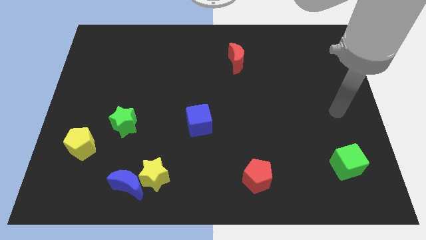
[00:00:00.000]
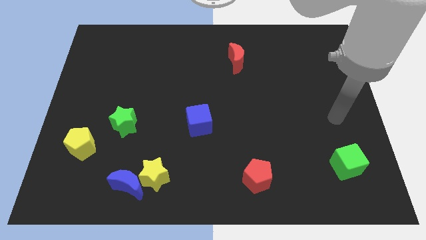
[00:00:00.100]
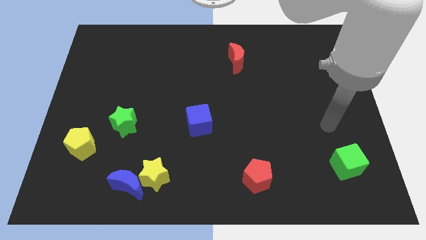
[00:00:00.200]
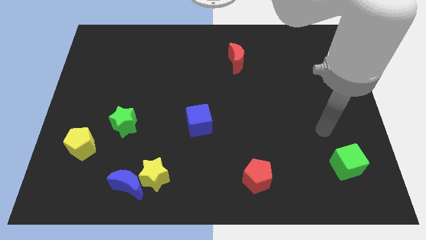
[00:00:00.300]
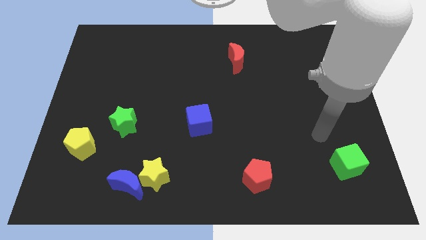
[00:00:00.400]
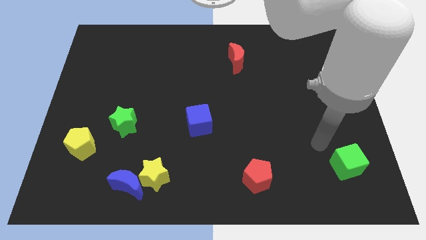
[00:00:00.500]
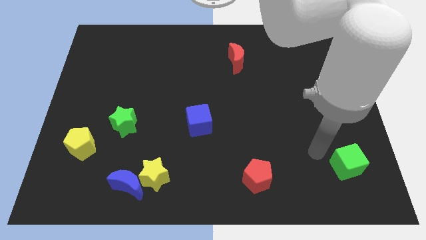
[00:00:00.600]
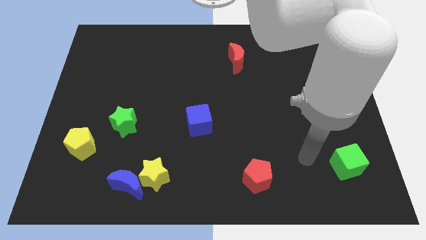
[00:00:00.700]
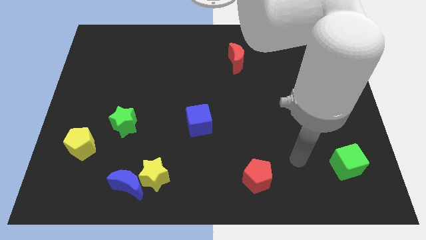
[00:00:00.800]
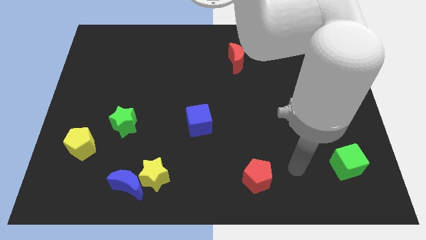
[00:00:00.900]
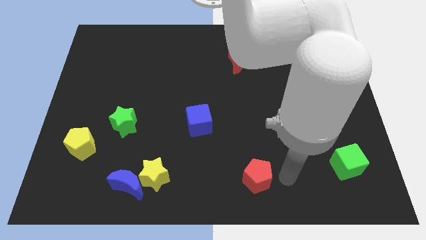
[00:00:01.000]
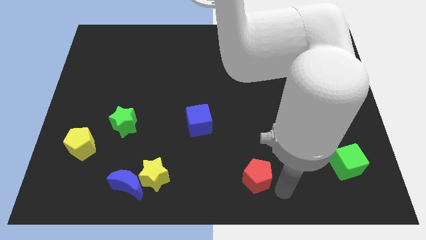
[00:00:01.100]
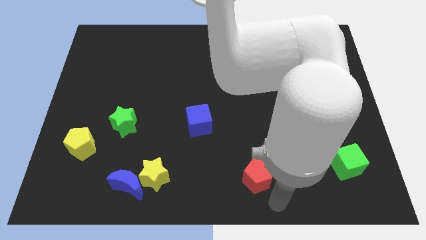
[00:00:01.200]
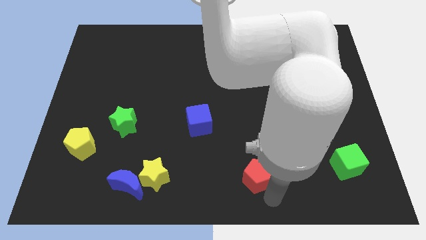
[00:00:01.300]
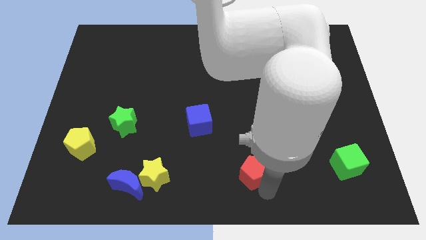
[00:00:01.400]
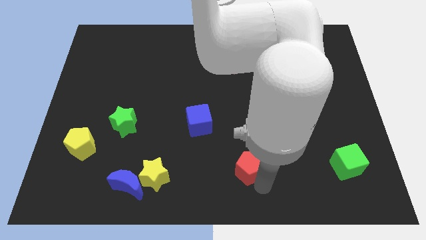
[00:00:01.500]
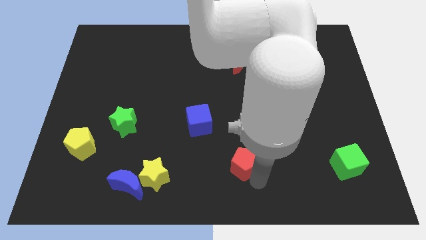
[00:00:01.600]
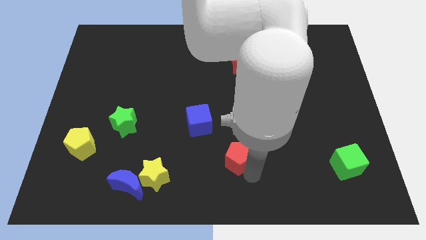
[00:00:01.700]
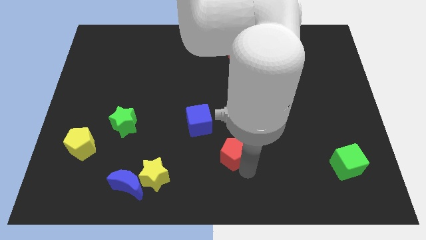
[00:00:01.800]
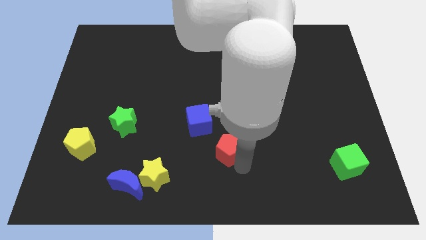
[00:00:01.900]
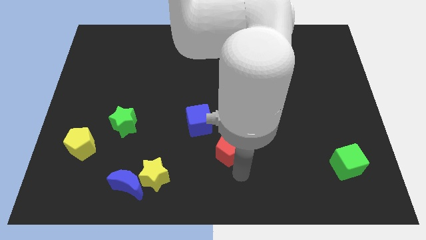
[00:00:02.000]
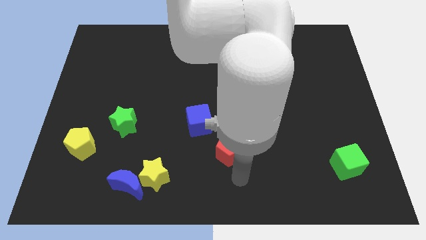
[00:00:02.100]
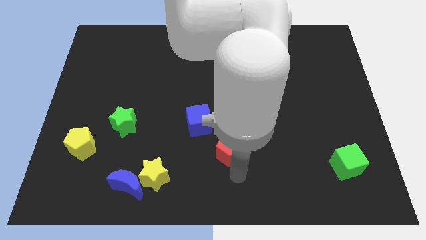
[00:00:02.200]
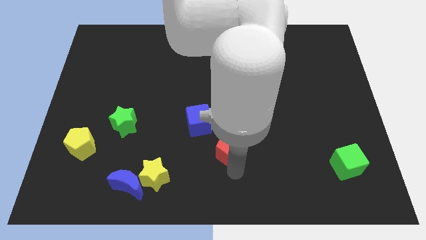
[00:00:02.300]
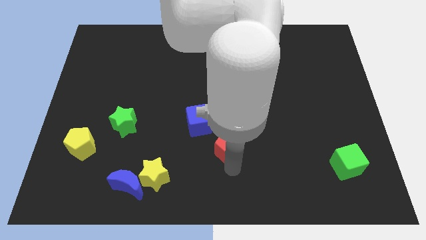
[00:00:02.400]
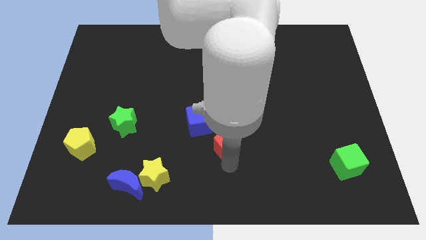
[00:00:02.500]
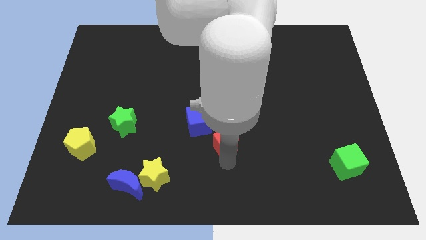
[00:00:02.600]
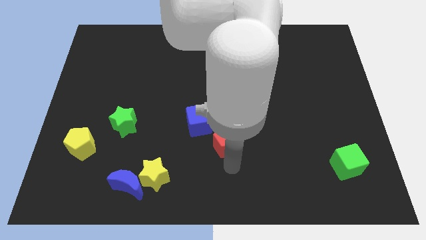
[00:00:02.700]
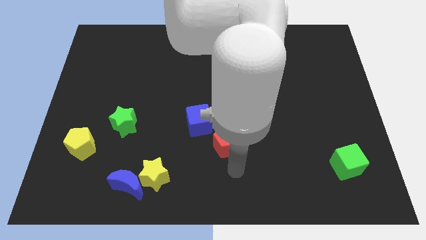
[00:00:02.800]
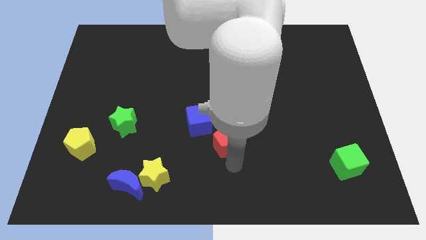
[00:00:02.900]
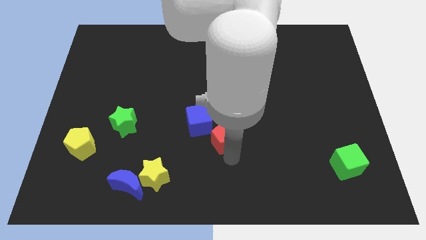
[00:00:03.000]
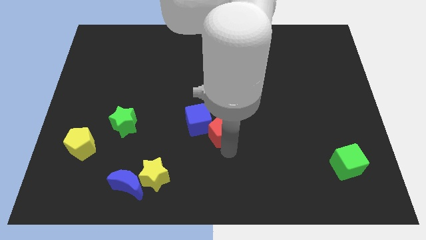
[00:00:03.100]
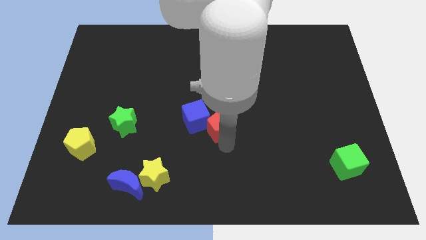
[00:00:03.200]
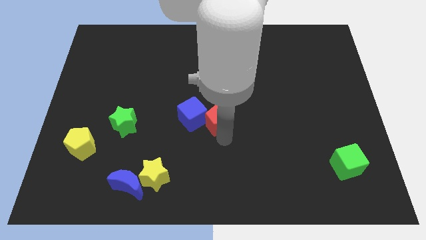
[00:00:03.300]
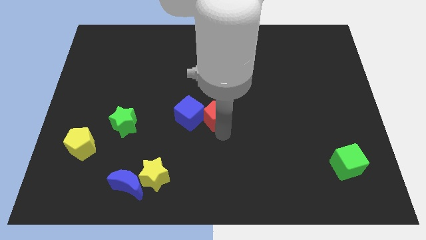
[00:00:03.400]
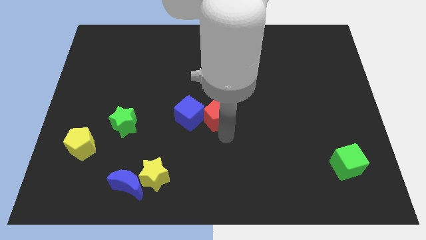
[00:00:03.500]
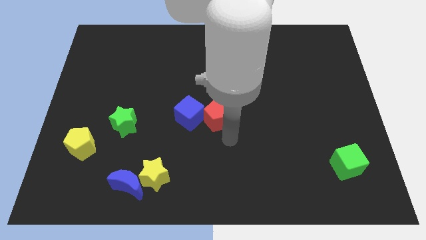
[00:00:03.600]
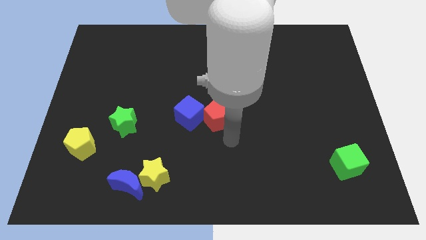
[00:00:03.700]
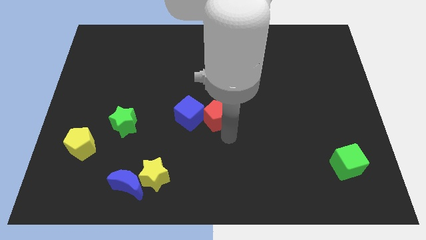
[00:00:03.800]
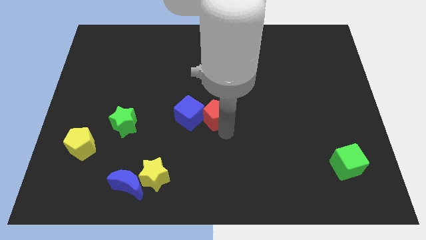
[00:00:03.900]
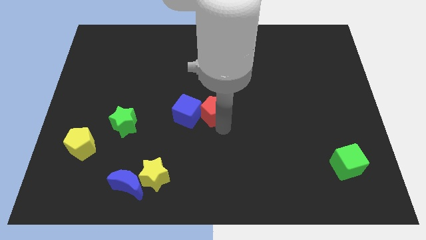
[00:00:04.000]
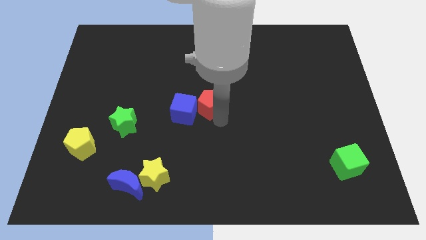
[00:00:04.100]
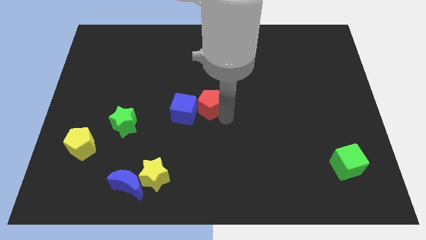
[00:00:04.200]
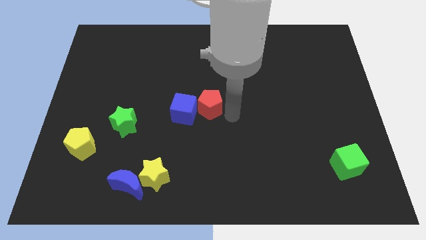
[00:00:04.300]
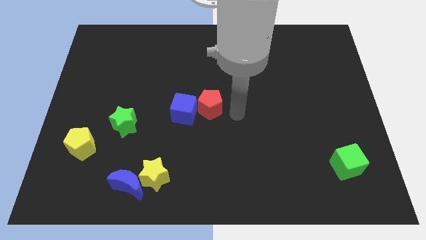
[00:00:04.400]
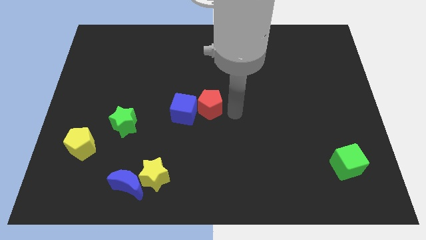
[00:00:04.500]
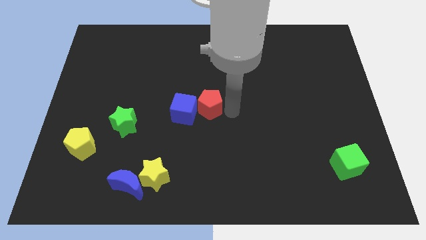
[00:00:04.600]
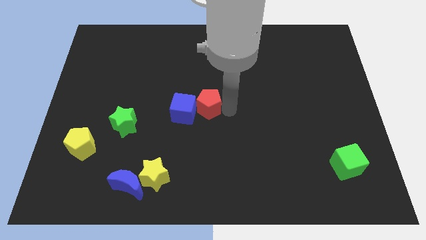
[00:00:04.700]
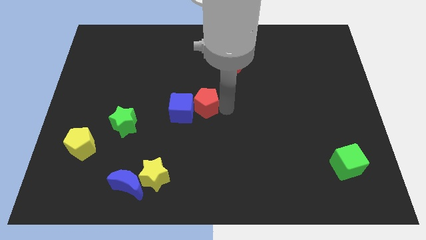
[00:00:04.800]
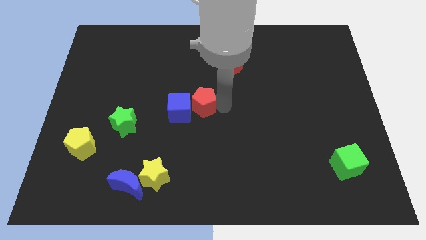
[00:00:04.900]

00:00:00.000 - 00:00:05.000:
slide the red pentagon up and to the left diagonally

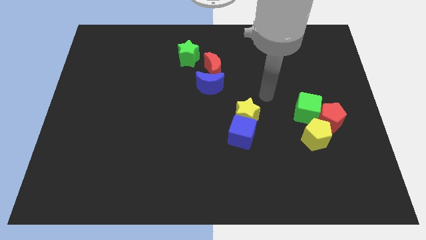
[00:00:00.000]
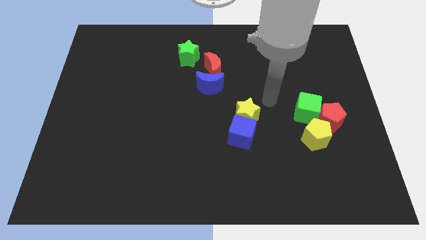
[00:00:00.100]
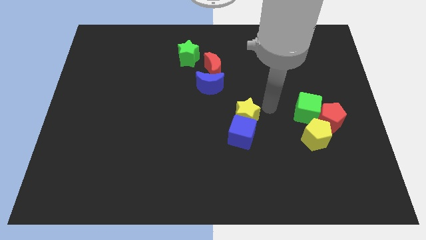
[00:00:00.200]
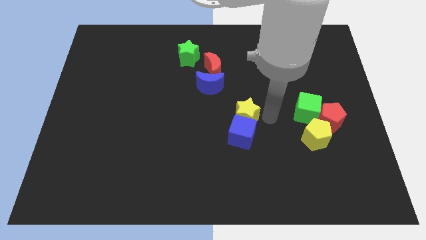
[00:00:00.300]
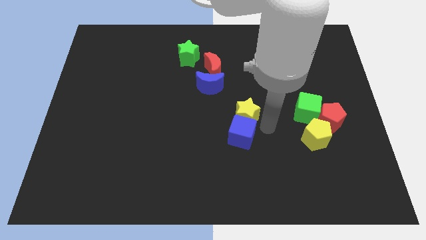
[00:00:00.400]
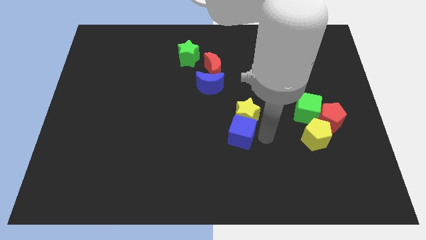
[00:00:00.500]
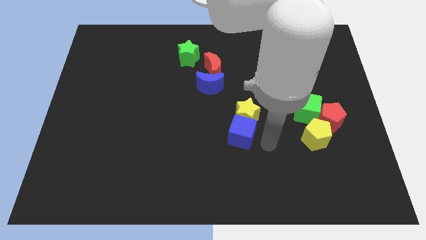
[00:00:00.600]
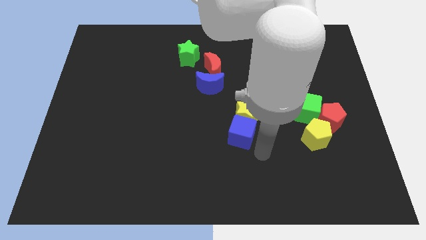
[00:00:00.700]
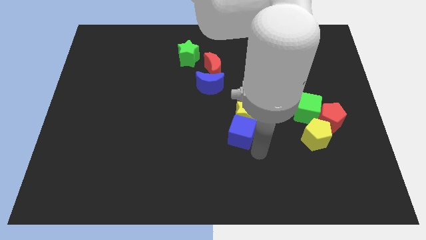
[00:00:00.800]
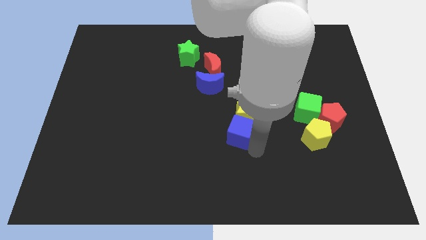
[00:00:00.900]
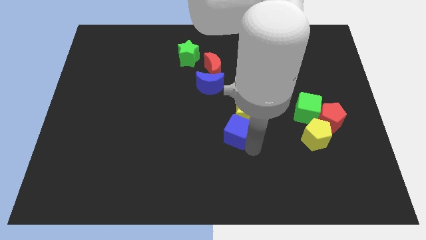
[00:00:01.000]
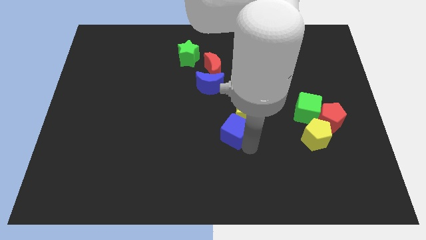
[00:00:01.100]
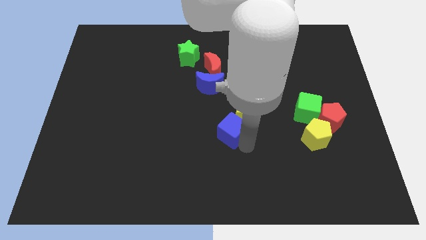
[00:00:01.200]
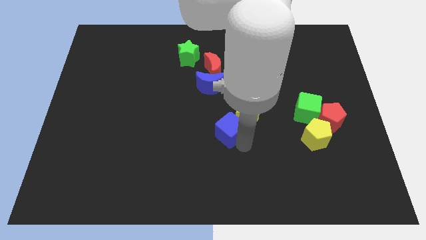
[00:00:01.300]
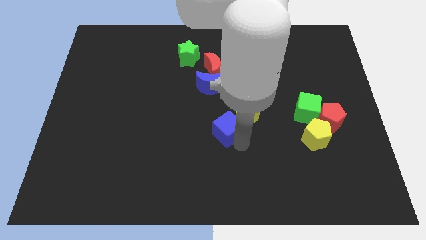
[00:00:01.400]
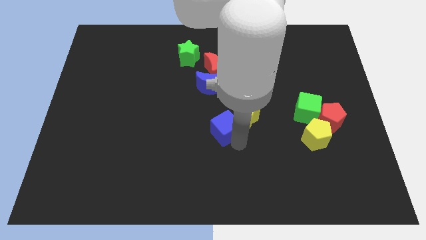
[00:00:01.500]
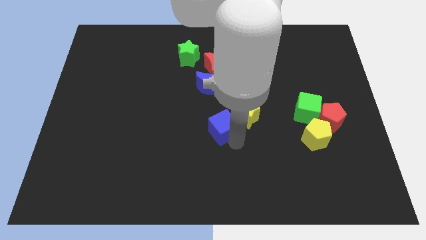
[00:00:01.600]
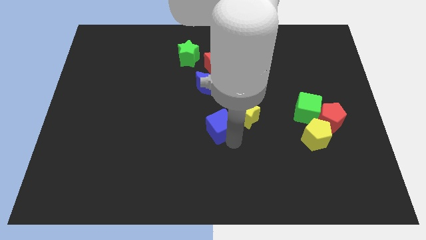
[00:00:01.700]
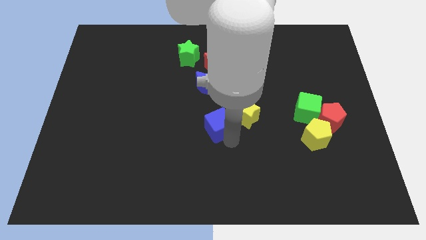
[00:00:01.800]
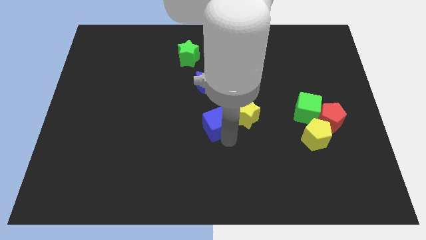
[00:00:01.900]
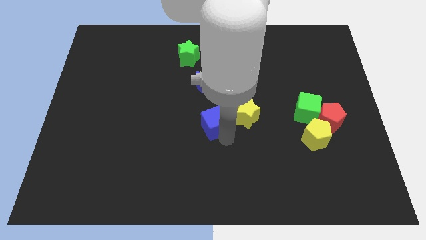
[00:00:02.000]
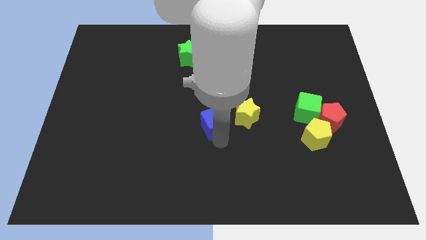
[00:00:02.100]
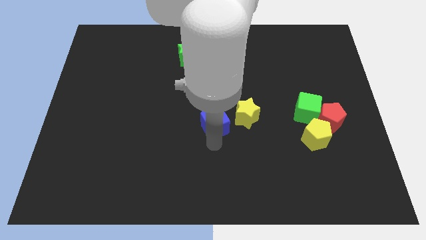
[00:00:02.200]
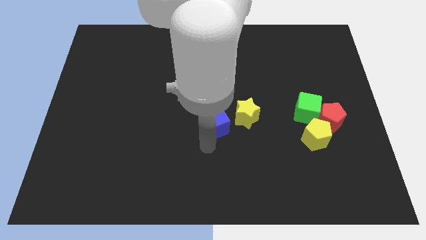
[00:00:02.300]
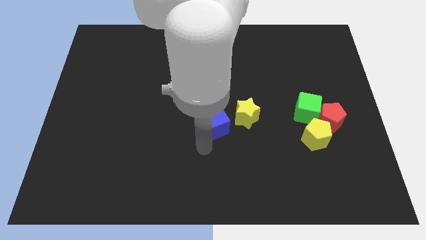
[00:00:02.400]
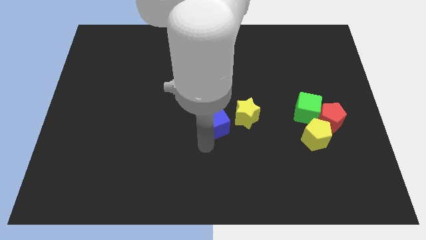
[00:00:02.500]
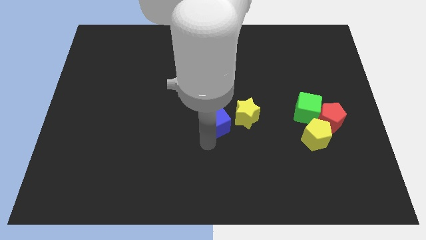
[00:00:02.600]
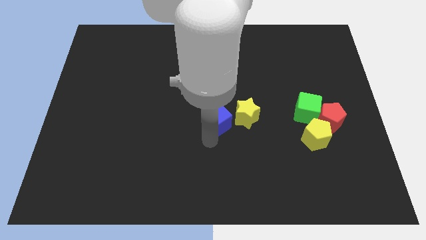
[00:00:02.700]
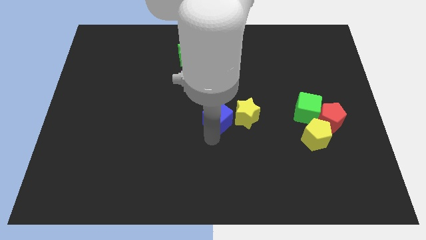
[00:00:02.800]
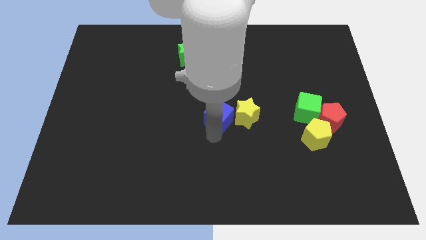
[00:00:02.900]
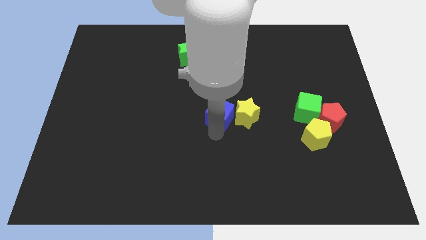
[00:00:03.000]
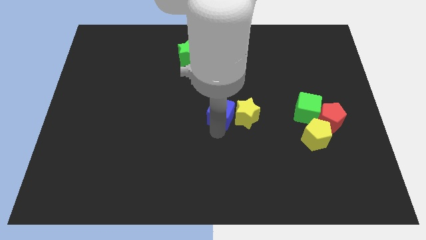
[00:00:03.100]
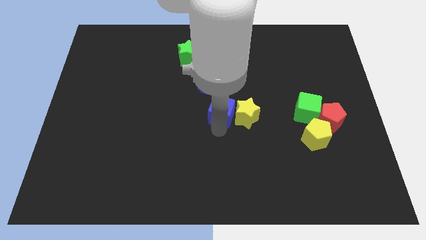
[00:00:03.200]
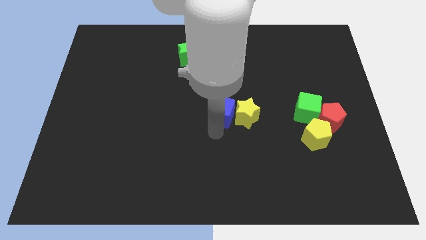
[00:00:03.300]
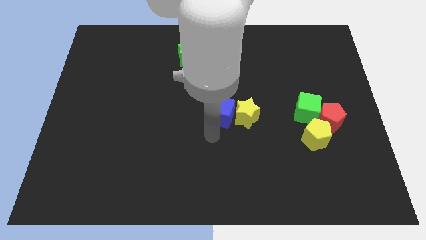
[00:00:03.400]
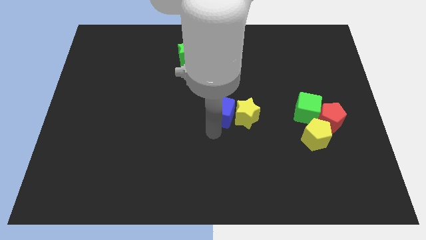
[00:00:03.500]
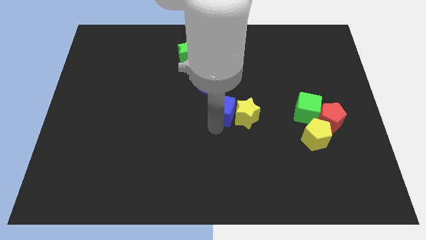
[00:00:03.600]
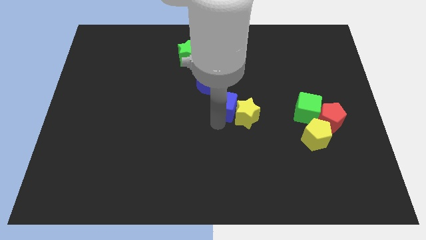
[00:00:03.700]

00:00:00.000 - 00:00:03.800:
move the blue cube up a bit
